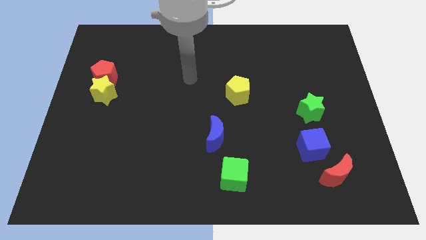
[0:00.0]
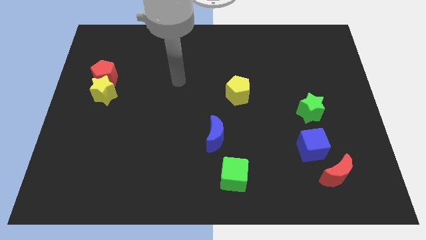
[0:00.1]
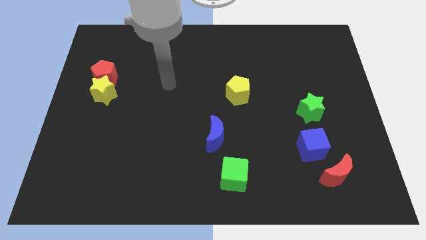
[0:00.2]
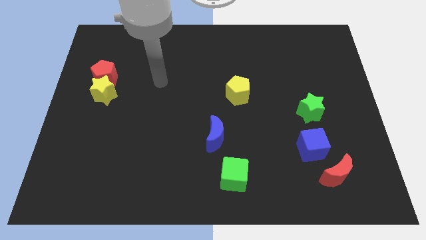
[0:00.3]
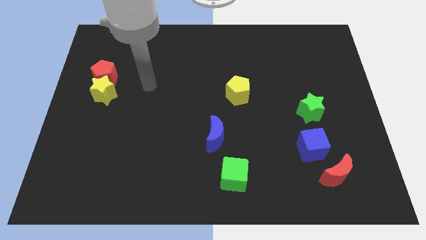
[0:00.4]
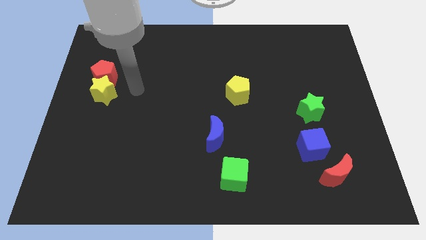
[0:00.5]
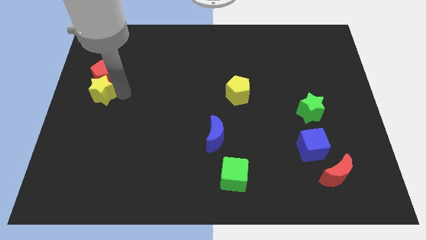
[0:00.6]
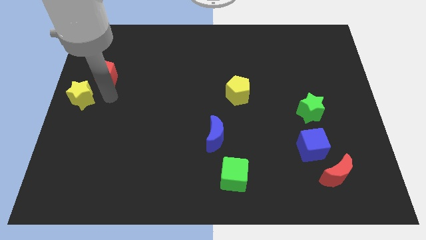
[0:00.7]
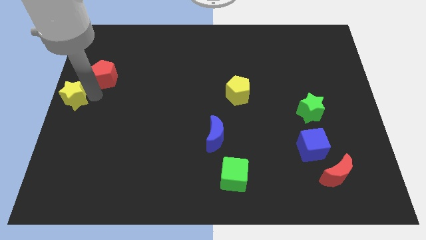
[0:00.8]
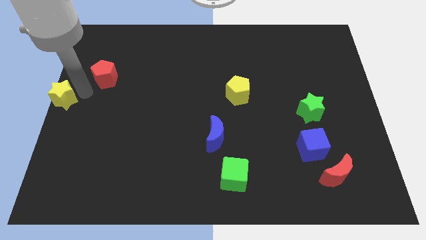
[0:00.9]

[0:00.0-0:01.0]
pull the red pentagon apart from the yellow star

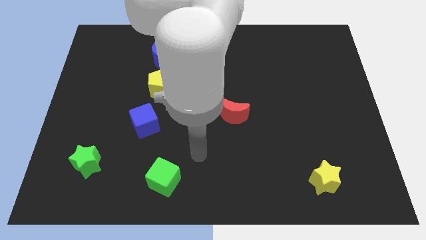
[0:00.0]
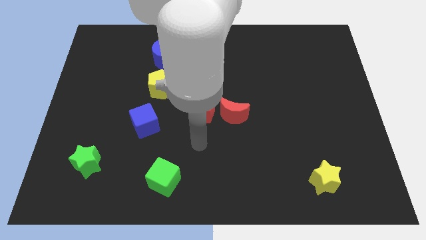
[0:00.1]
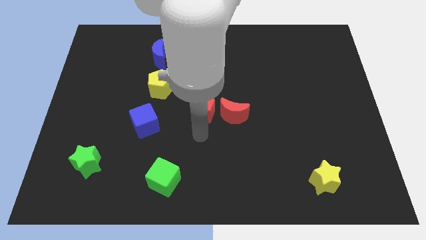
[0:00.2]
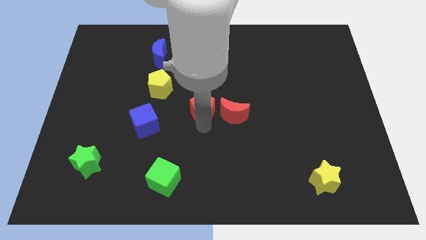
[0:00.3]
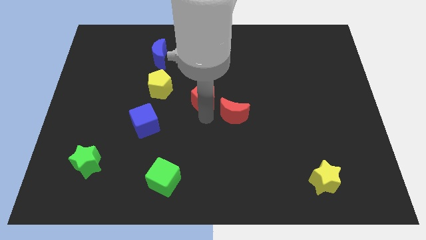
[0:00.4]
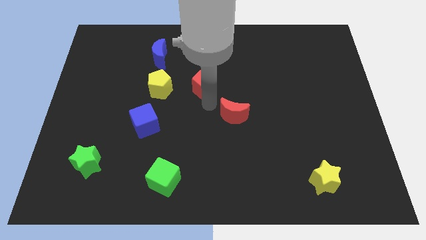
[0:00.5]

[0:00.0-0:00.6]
pull the red moon apart from the red pentagon

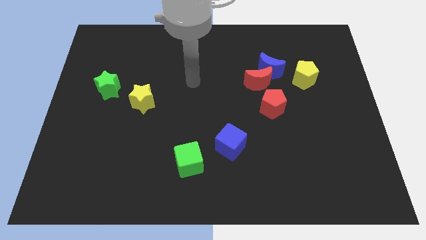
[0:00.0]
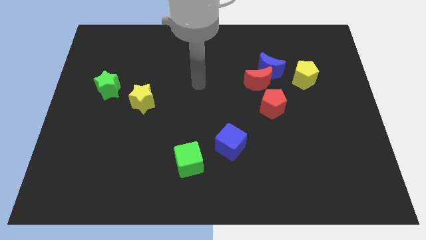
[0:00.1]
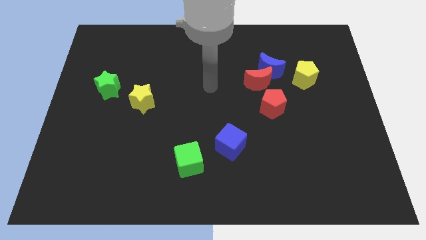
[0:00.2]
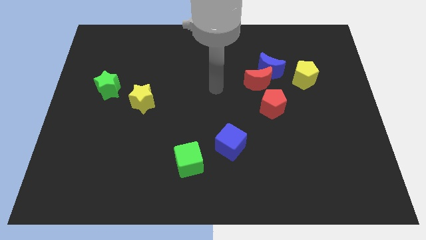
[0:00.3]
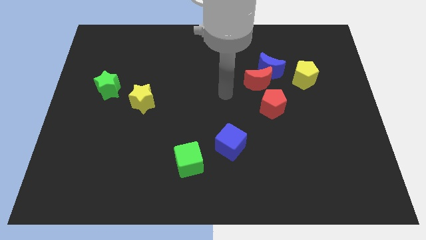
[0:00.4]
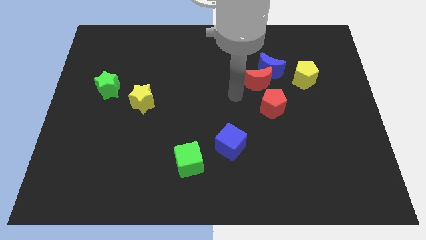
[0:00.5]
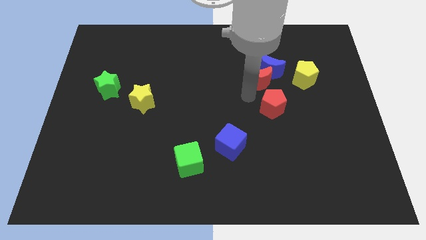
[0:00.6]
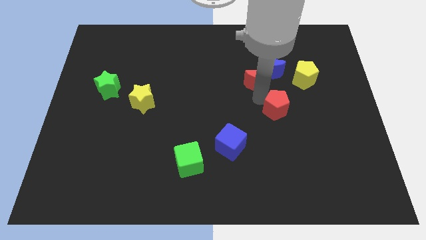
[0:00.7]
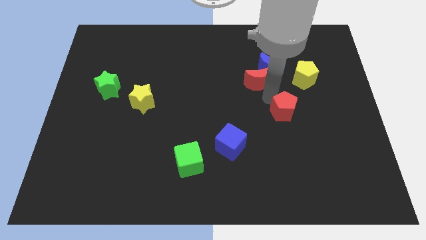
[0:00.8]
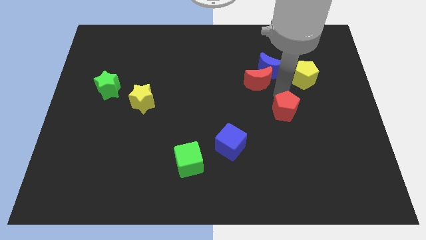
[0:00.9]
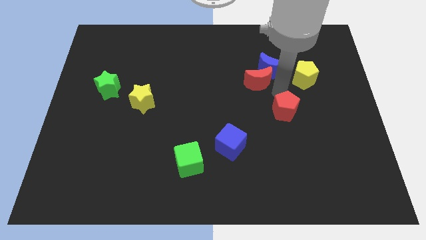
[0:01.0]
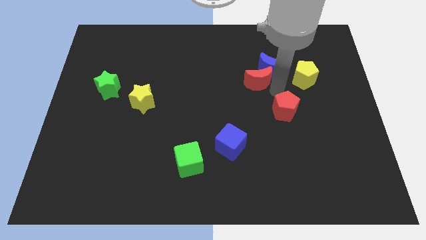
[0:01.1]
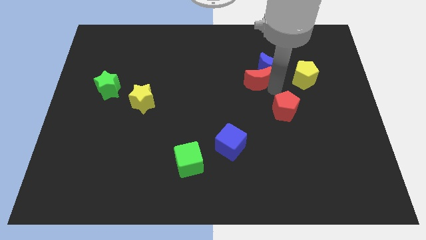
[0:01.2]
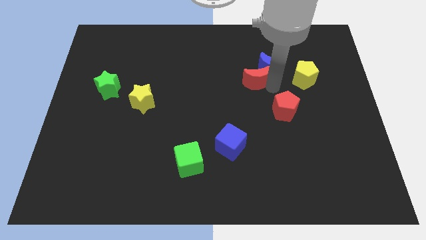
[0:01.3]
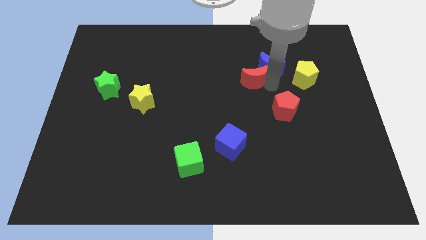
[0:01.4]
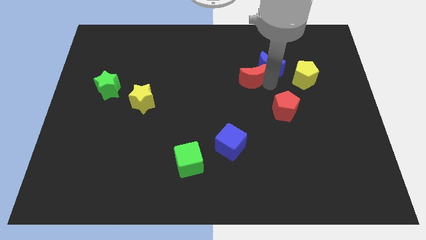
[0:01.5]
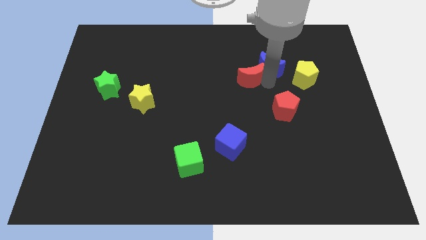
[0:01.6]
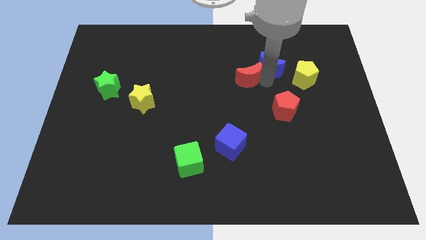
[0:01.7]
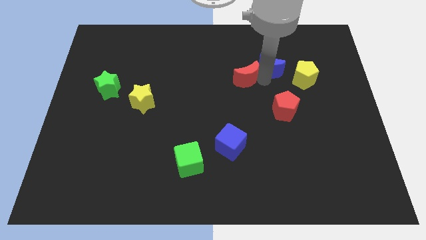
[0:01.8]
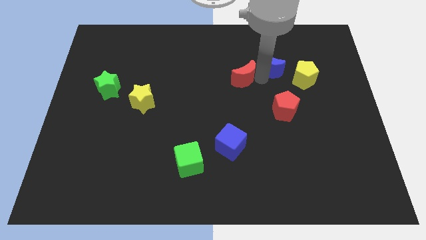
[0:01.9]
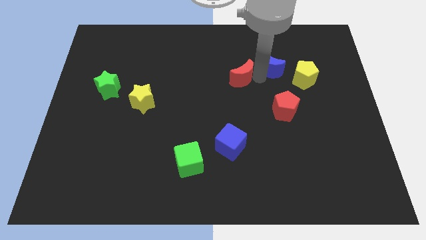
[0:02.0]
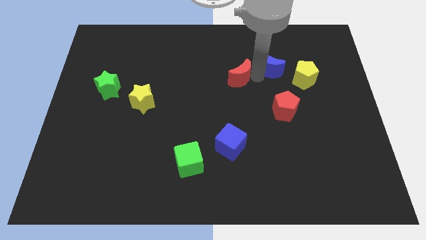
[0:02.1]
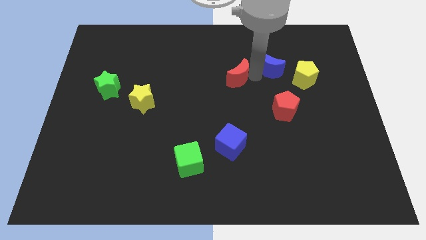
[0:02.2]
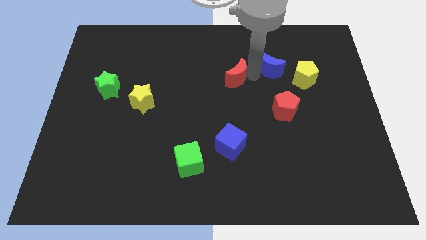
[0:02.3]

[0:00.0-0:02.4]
pull the red moon apart from the blue moon and red pentagon

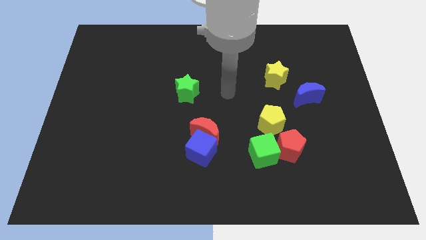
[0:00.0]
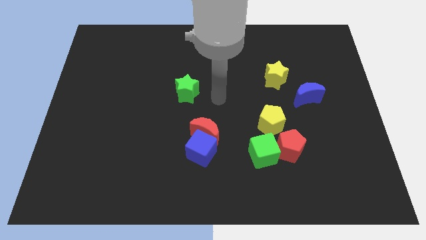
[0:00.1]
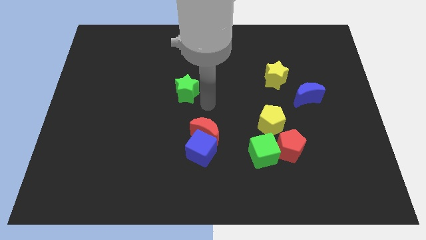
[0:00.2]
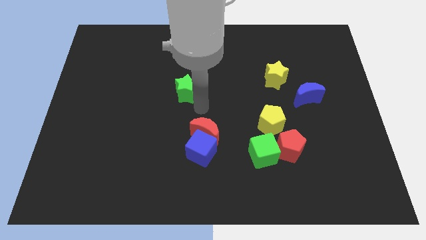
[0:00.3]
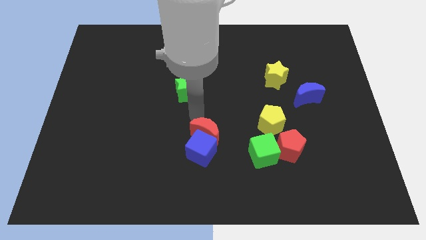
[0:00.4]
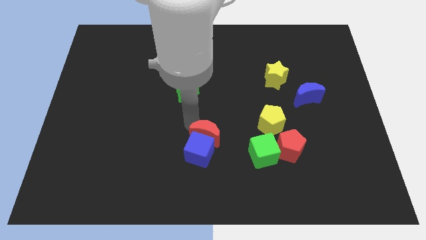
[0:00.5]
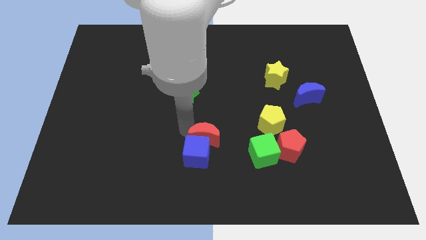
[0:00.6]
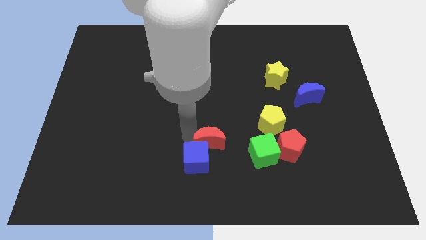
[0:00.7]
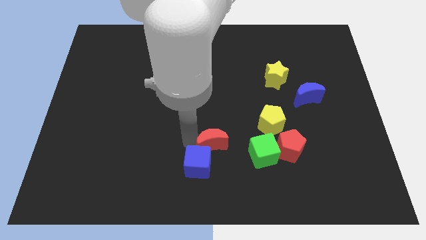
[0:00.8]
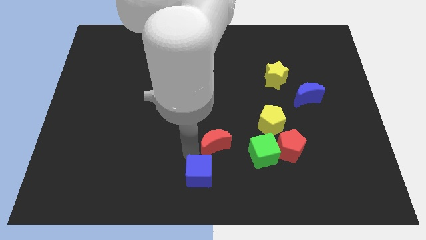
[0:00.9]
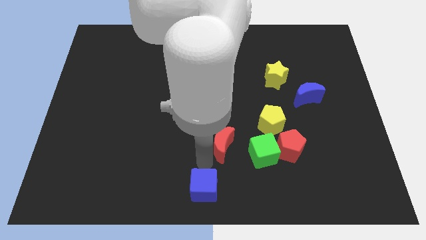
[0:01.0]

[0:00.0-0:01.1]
separate the red moon from the blue cube

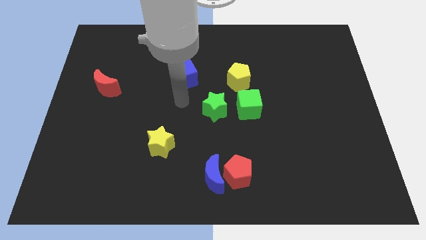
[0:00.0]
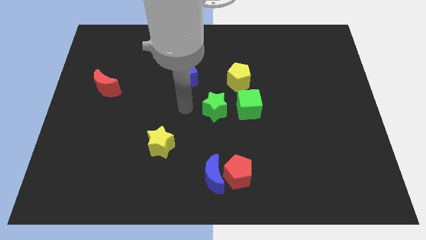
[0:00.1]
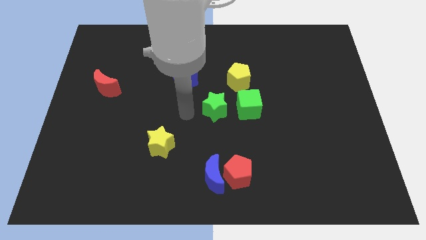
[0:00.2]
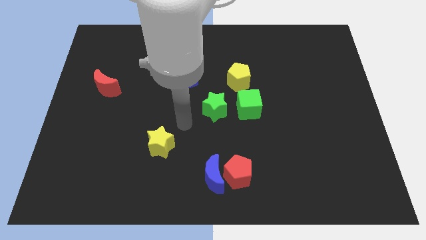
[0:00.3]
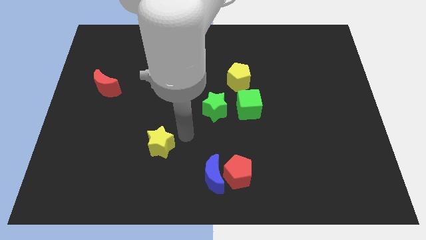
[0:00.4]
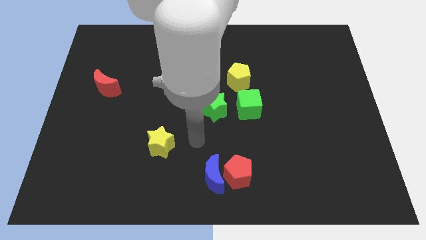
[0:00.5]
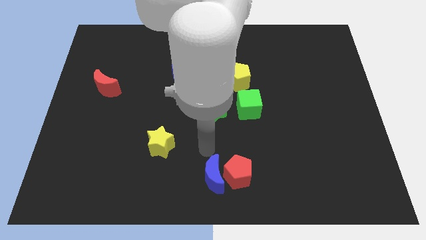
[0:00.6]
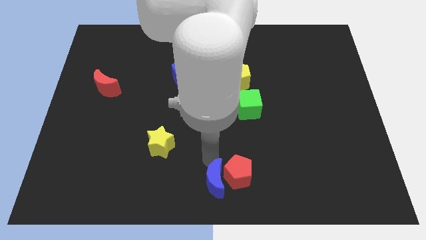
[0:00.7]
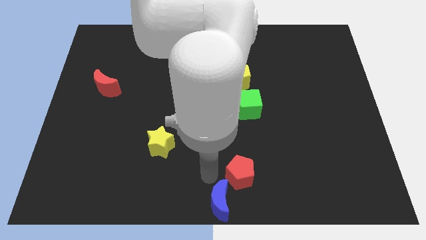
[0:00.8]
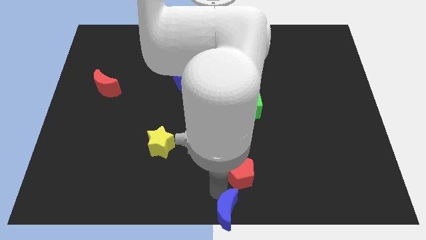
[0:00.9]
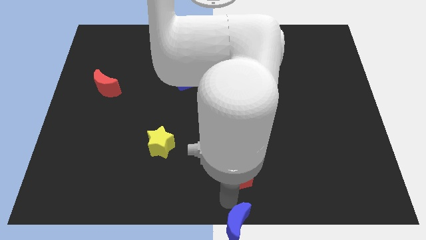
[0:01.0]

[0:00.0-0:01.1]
move the red pentagon away from the blue moon

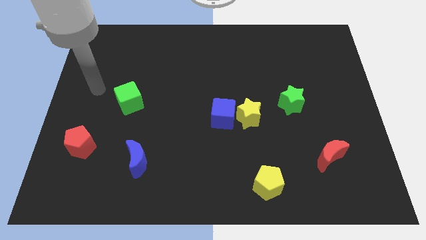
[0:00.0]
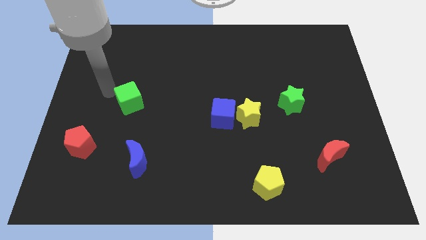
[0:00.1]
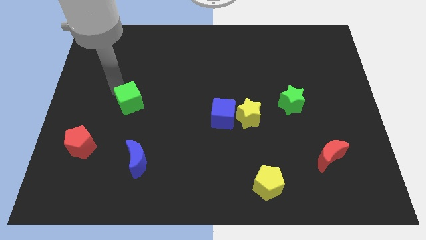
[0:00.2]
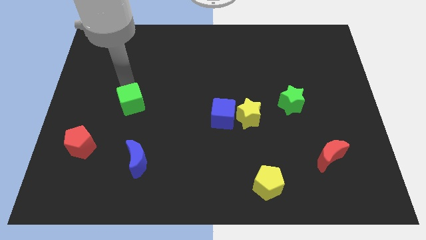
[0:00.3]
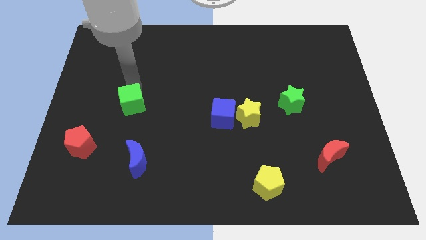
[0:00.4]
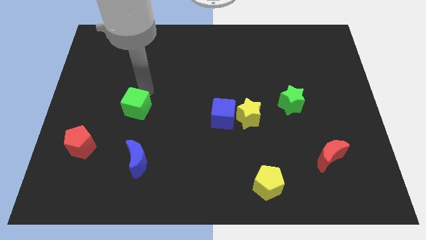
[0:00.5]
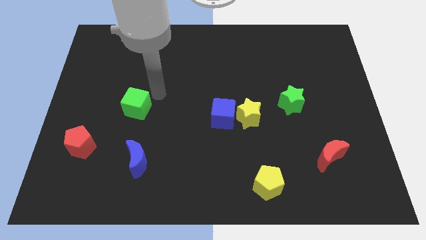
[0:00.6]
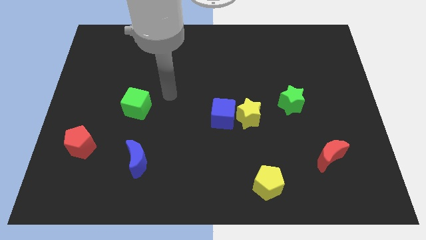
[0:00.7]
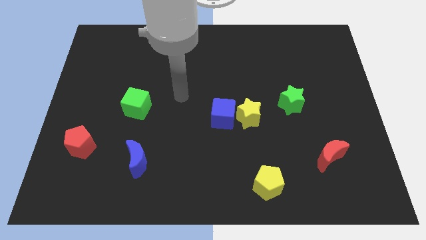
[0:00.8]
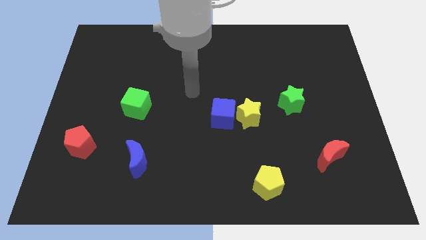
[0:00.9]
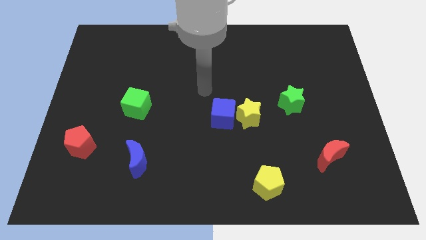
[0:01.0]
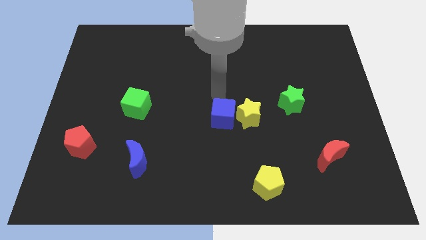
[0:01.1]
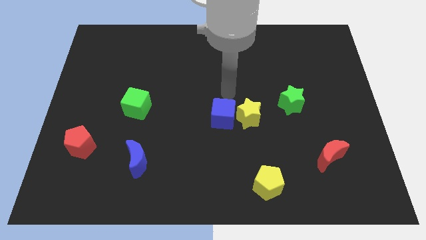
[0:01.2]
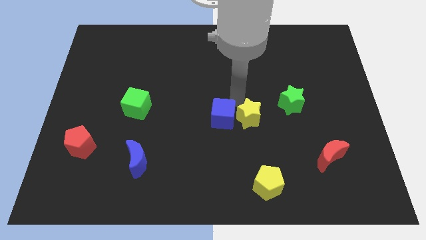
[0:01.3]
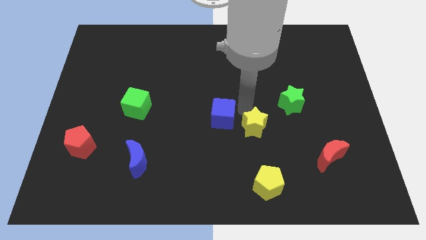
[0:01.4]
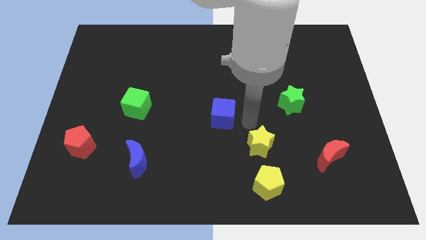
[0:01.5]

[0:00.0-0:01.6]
move the blue cube away from the yellow star

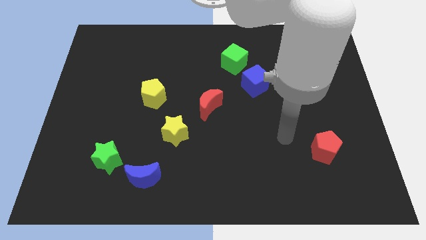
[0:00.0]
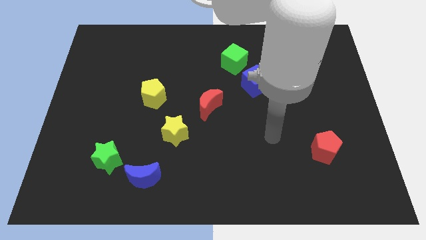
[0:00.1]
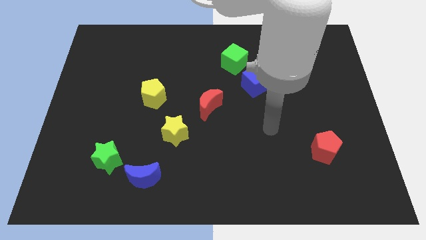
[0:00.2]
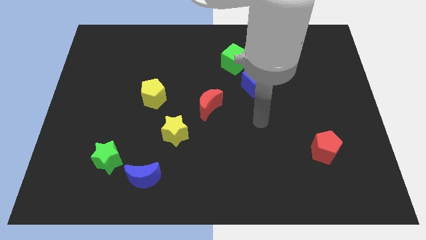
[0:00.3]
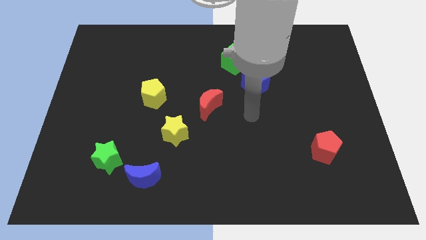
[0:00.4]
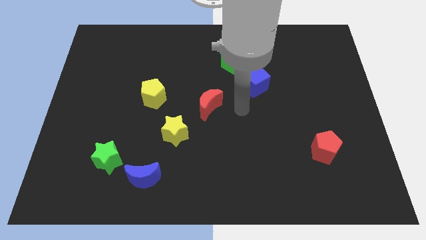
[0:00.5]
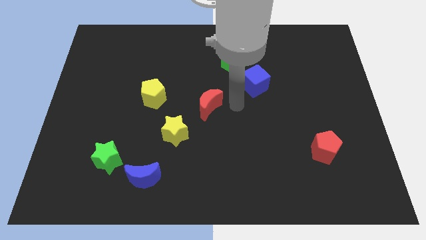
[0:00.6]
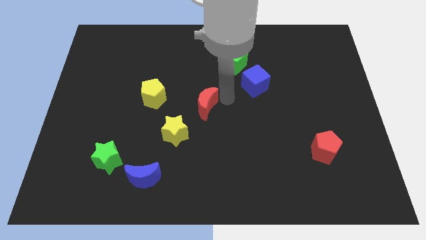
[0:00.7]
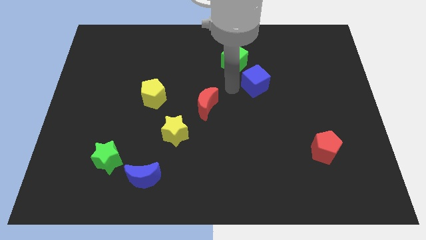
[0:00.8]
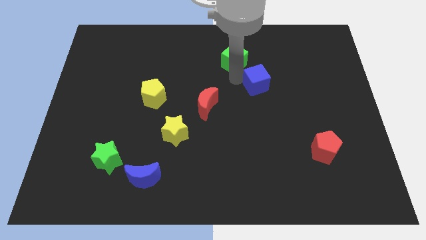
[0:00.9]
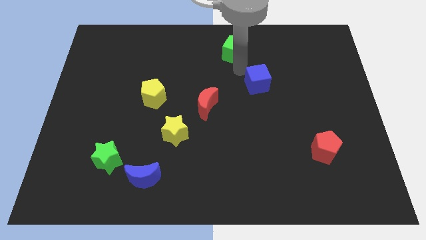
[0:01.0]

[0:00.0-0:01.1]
move the blue cube away from the green cube

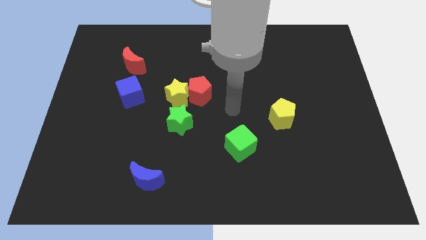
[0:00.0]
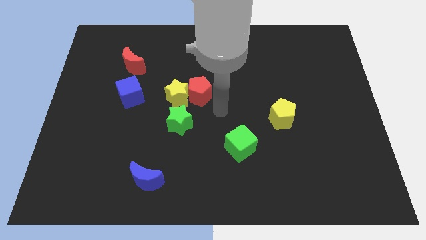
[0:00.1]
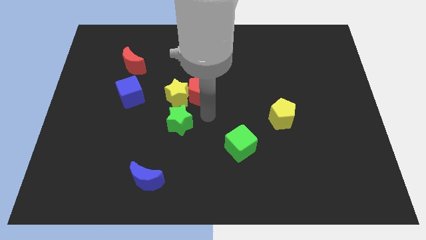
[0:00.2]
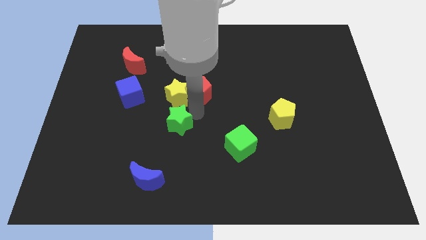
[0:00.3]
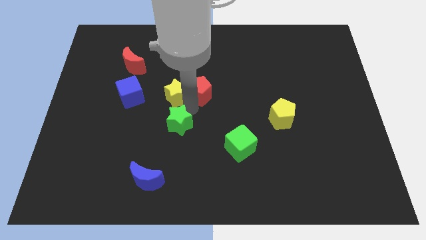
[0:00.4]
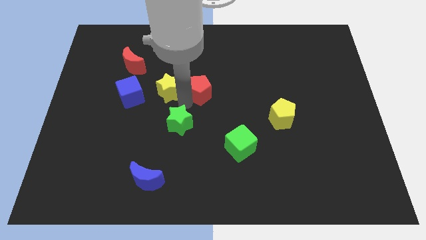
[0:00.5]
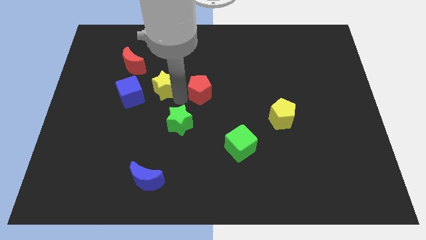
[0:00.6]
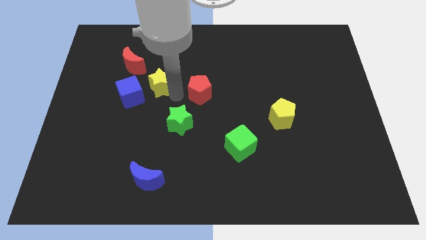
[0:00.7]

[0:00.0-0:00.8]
move the yellow star away from the red pentagon and green star
